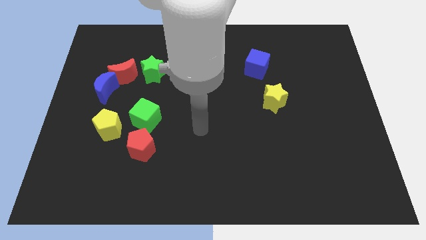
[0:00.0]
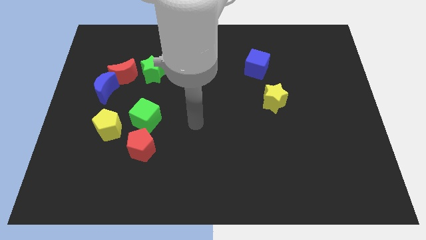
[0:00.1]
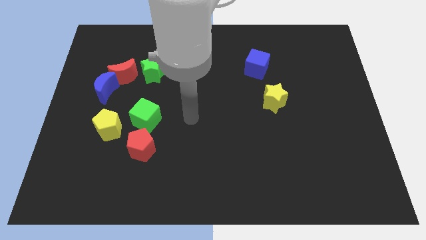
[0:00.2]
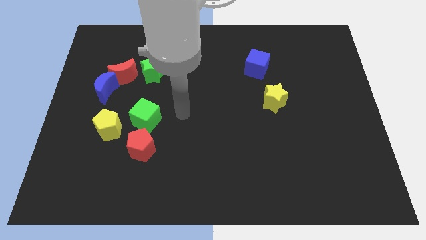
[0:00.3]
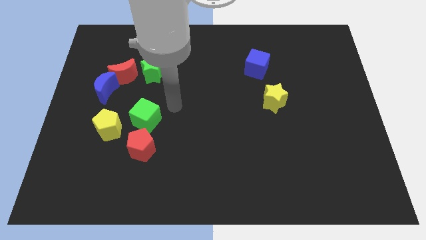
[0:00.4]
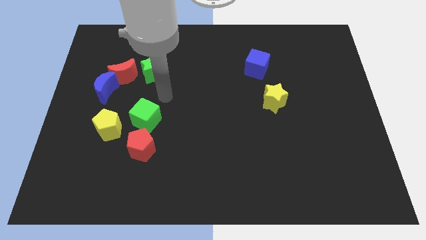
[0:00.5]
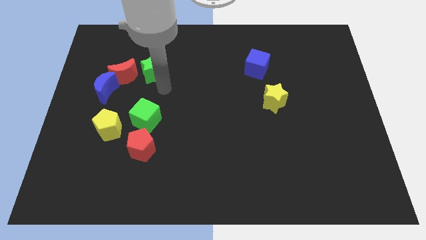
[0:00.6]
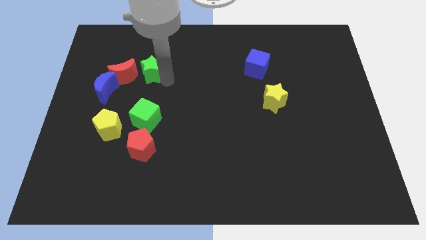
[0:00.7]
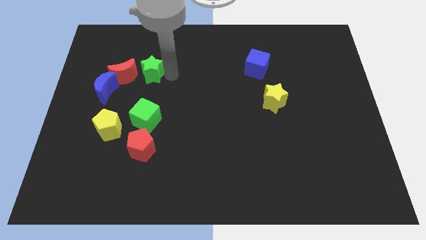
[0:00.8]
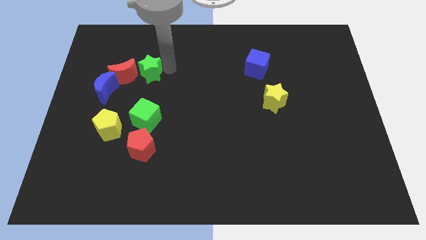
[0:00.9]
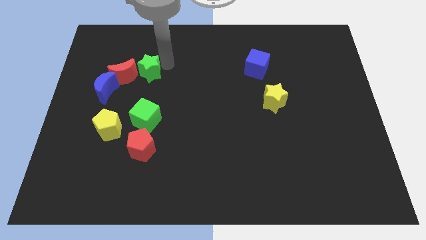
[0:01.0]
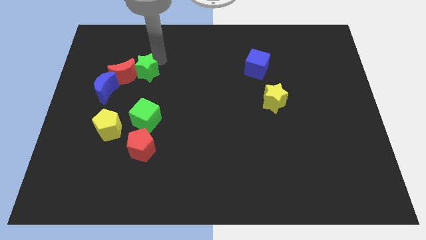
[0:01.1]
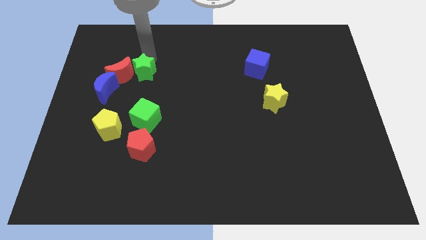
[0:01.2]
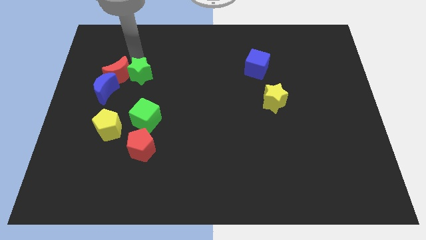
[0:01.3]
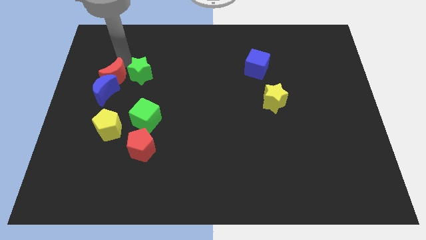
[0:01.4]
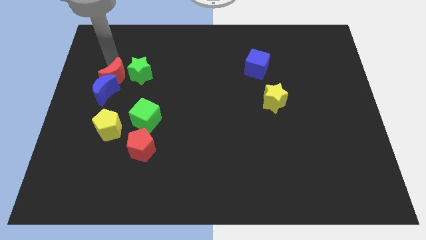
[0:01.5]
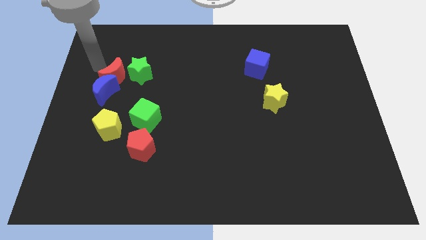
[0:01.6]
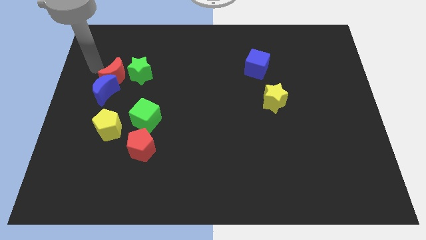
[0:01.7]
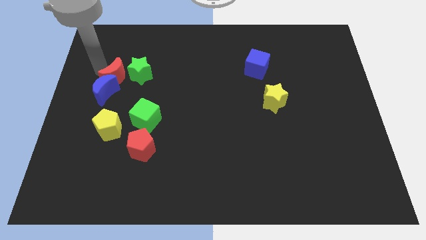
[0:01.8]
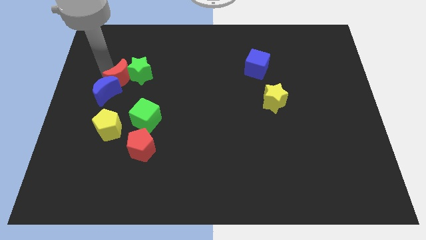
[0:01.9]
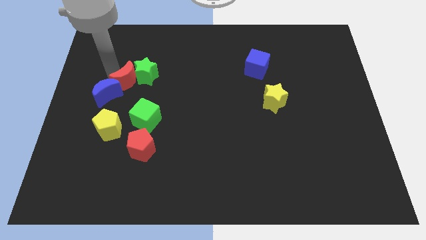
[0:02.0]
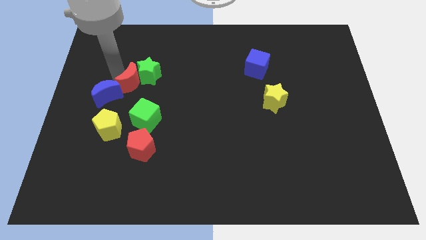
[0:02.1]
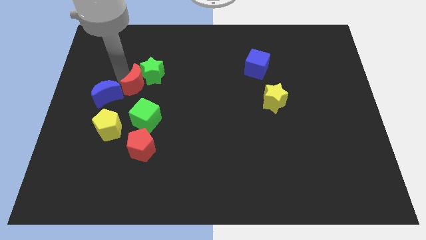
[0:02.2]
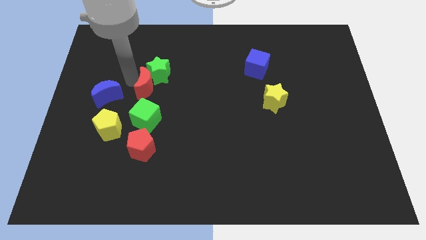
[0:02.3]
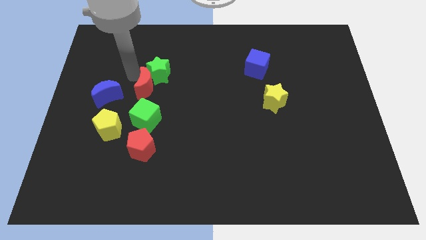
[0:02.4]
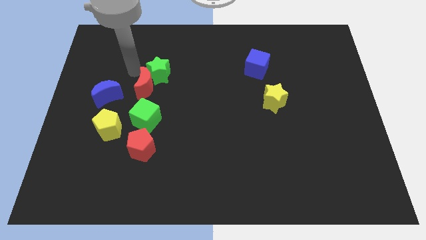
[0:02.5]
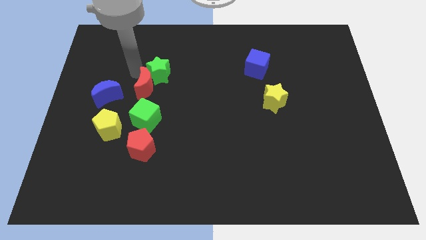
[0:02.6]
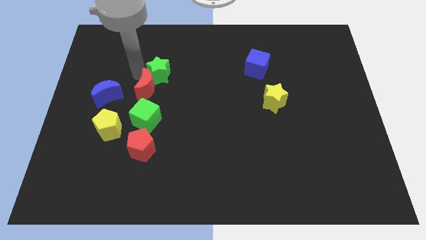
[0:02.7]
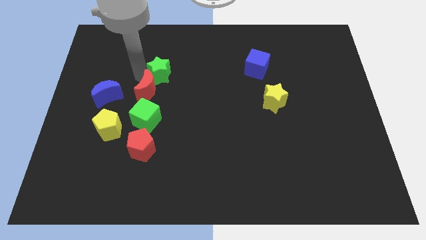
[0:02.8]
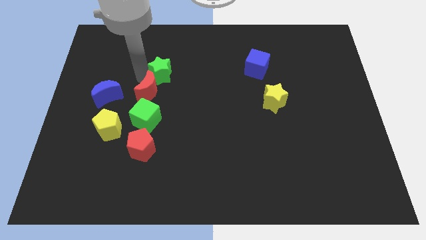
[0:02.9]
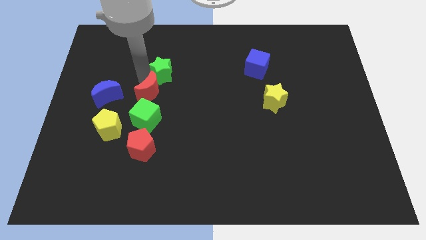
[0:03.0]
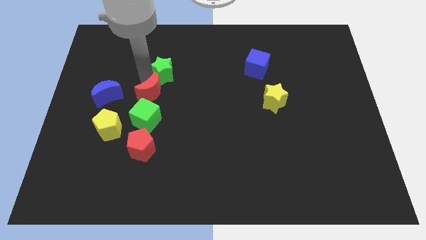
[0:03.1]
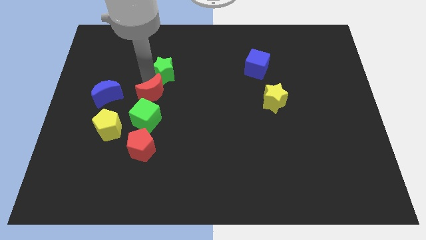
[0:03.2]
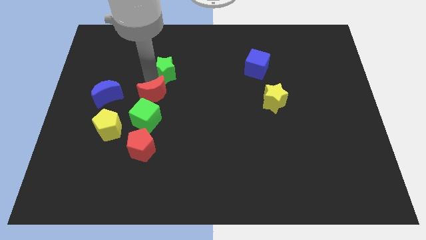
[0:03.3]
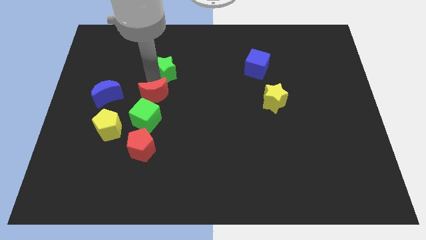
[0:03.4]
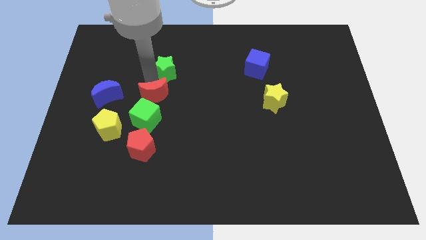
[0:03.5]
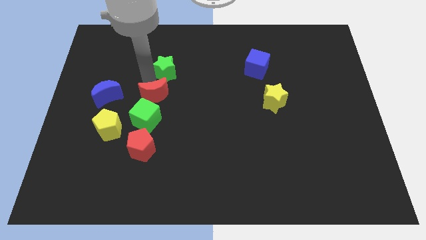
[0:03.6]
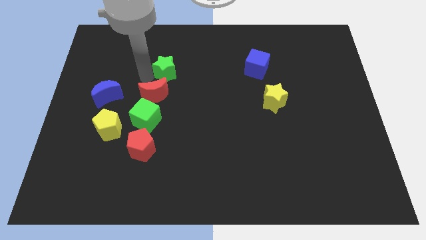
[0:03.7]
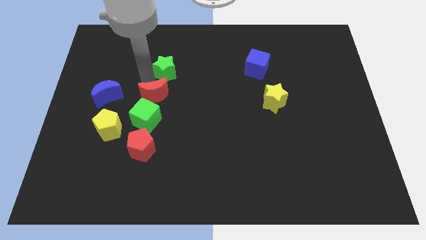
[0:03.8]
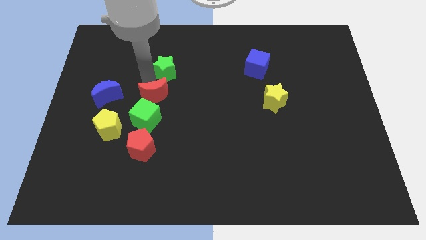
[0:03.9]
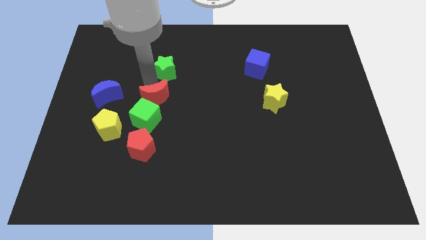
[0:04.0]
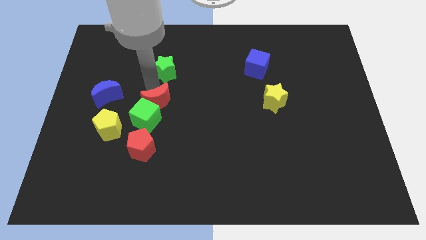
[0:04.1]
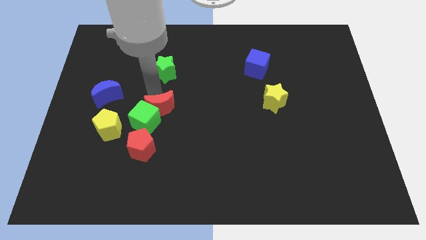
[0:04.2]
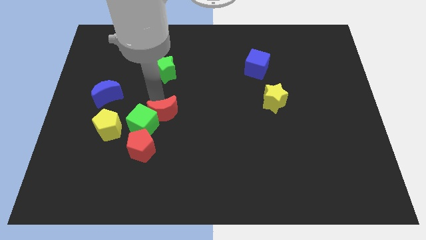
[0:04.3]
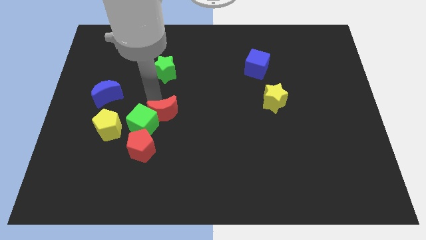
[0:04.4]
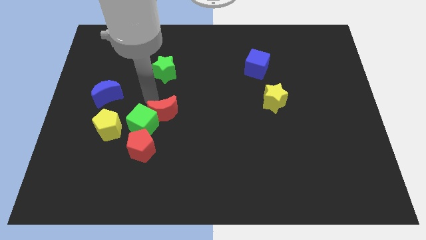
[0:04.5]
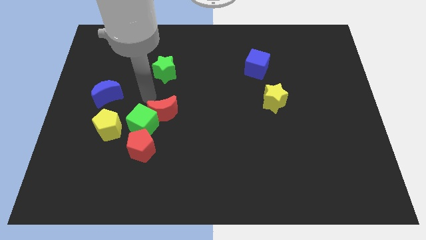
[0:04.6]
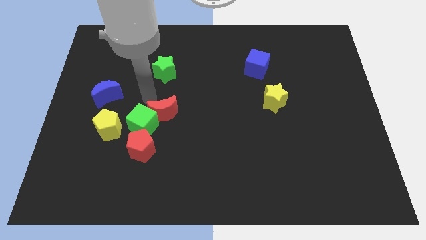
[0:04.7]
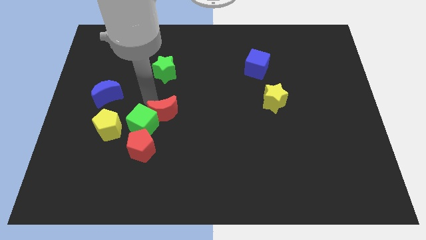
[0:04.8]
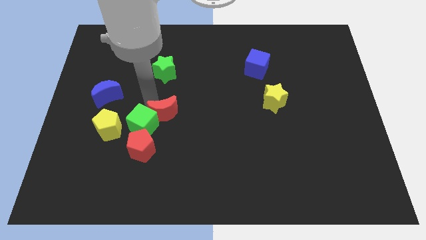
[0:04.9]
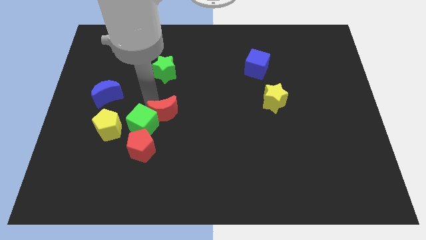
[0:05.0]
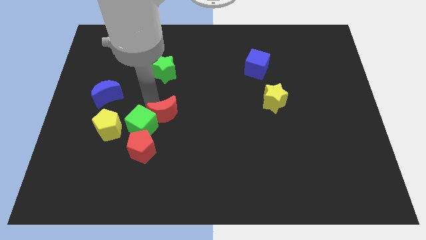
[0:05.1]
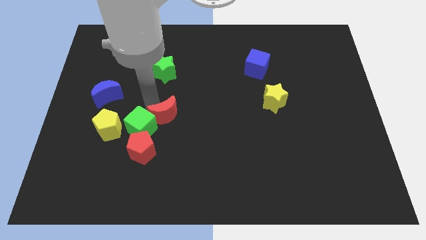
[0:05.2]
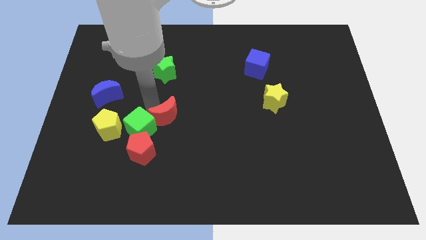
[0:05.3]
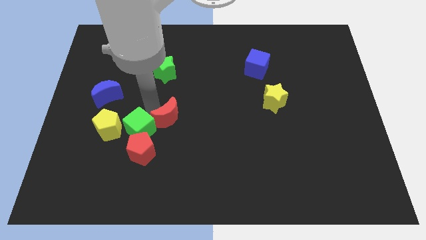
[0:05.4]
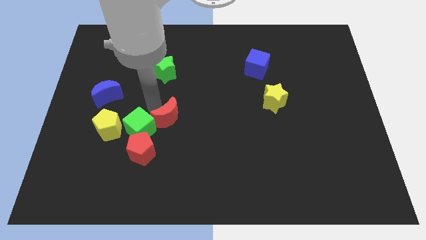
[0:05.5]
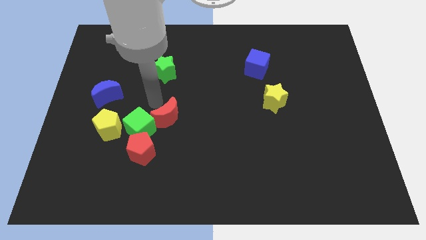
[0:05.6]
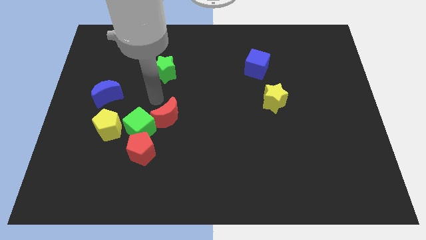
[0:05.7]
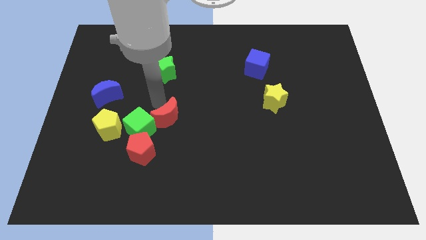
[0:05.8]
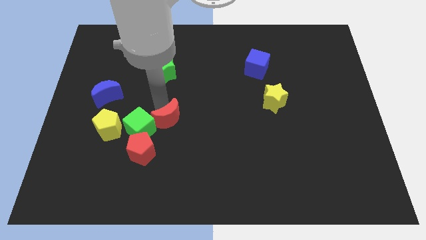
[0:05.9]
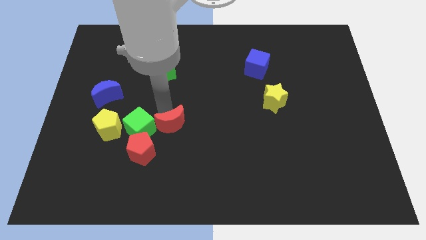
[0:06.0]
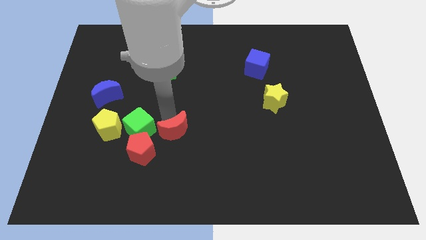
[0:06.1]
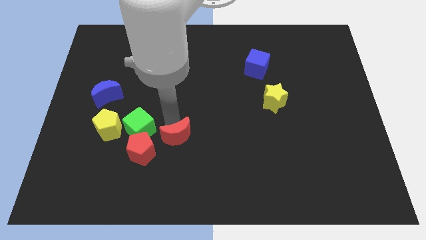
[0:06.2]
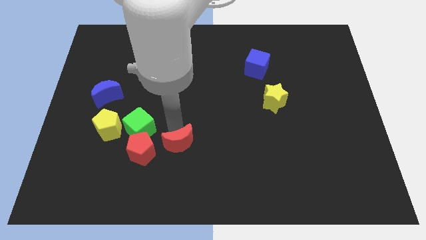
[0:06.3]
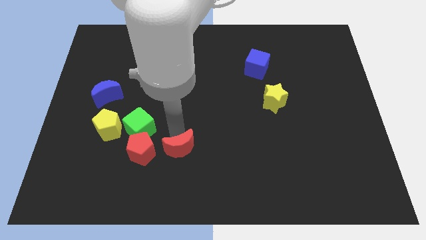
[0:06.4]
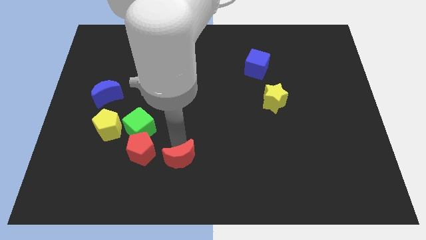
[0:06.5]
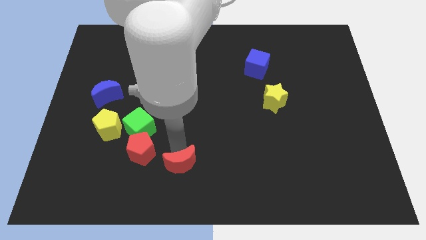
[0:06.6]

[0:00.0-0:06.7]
move the red moon to the bottom side
